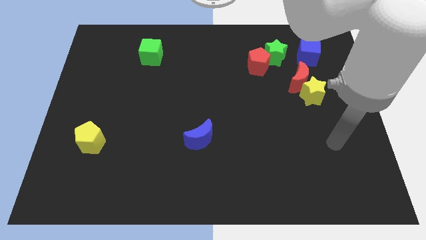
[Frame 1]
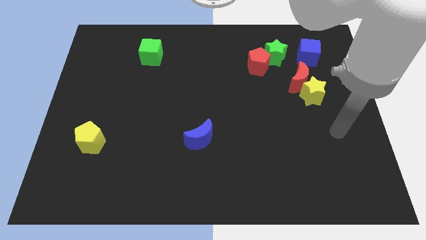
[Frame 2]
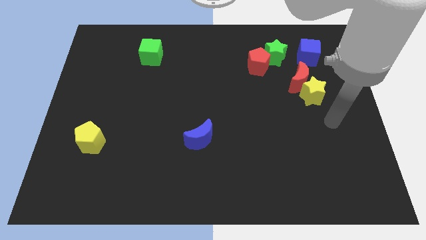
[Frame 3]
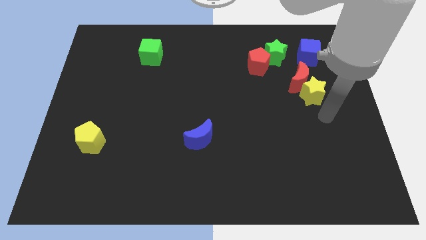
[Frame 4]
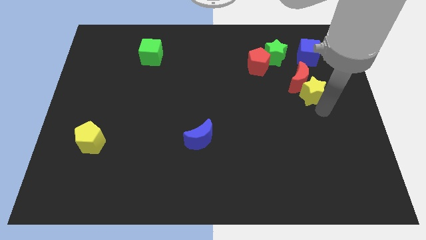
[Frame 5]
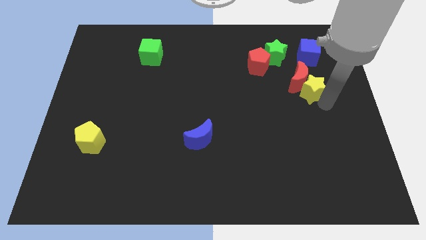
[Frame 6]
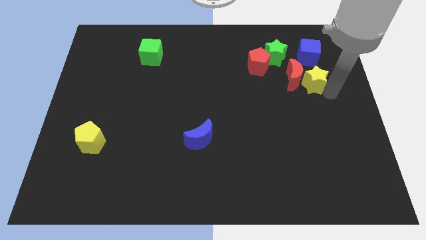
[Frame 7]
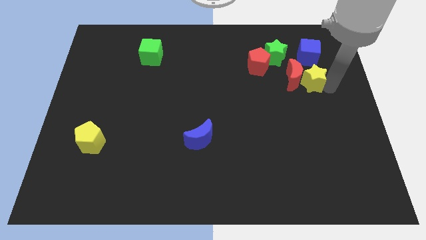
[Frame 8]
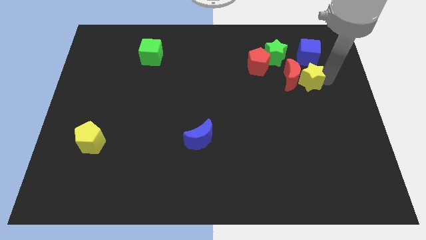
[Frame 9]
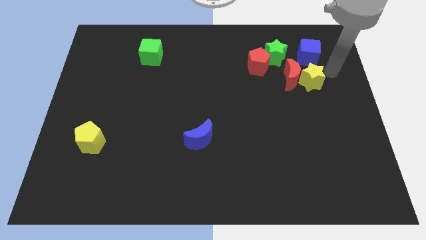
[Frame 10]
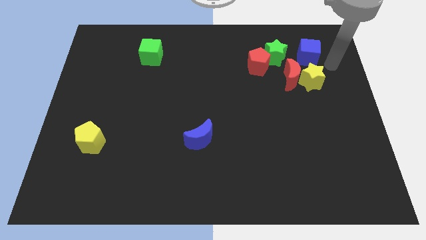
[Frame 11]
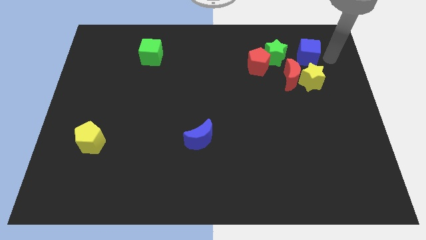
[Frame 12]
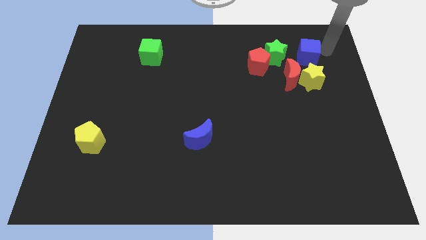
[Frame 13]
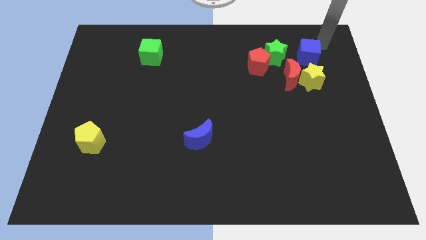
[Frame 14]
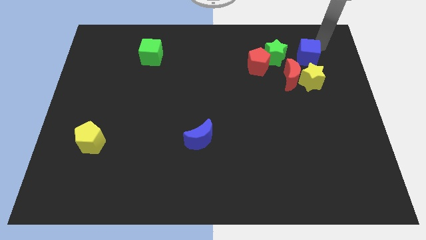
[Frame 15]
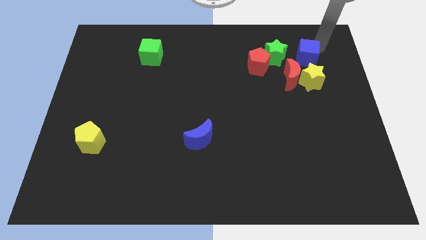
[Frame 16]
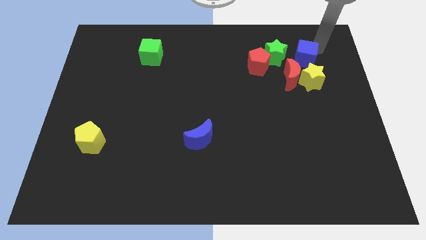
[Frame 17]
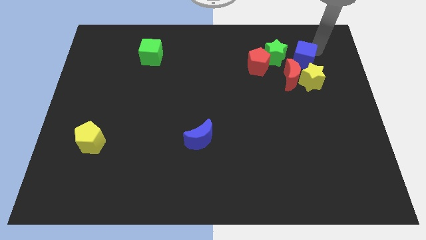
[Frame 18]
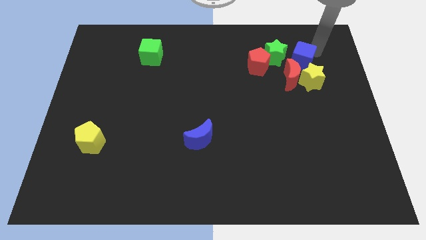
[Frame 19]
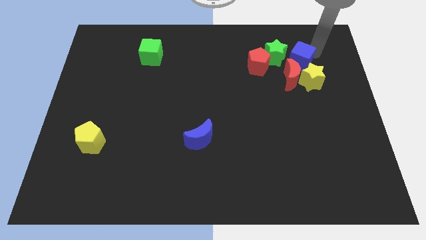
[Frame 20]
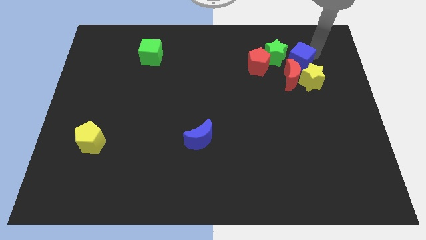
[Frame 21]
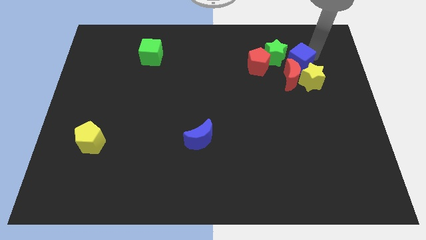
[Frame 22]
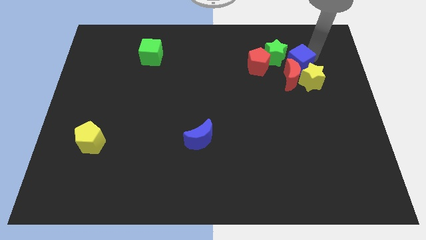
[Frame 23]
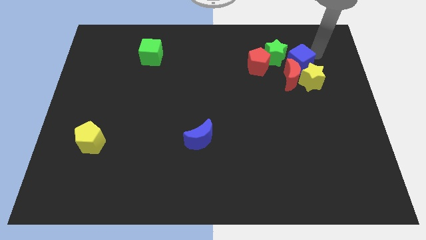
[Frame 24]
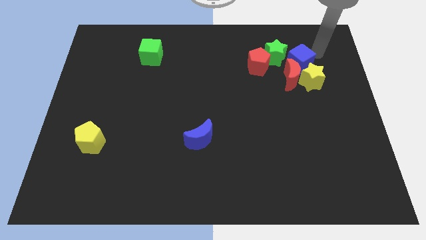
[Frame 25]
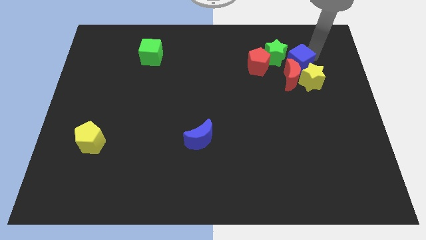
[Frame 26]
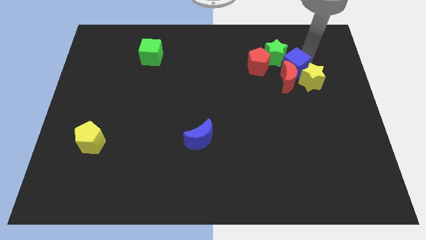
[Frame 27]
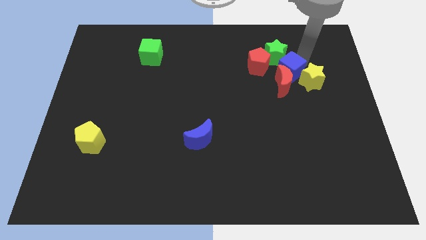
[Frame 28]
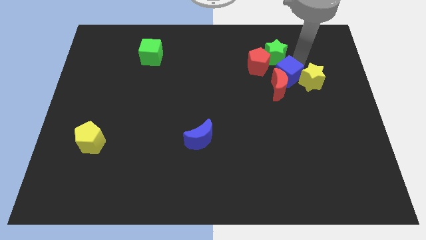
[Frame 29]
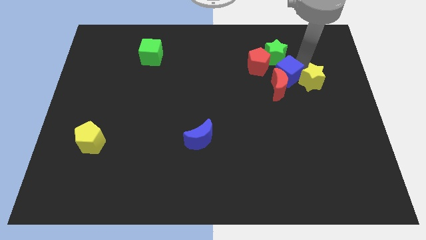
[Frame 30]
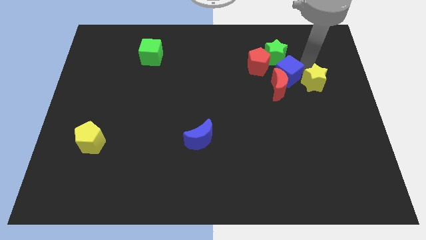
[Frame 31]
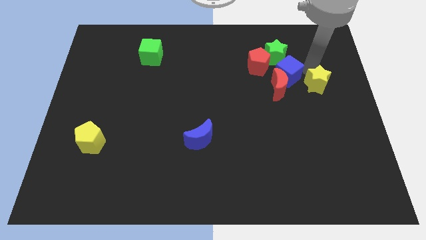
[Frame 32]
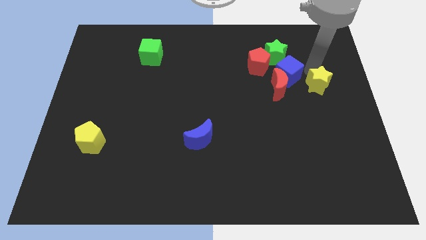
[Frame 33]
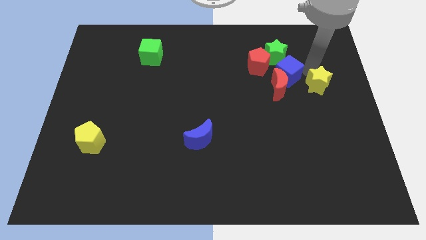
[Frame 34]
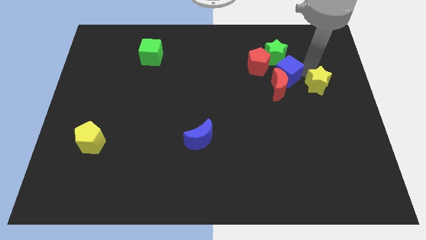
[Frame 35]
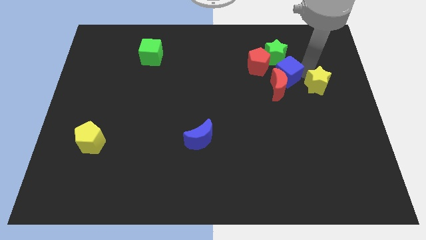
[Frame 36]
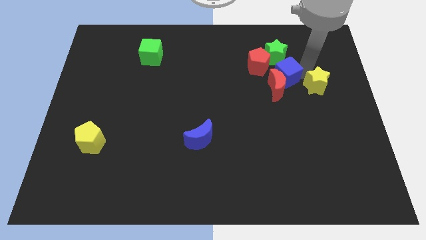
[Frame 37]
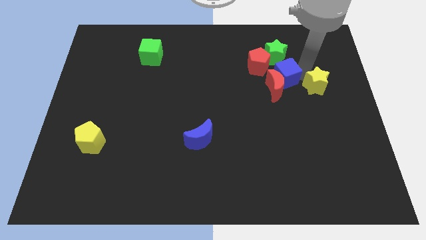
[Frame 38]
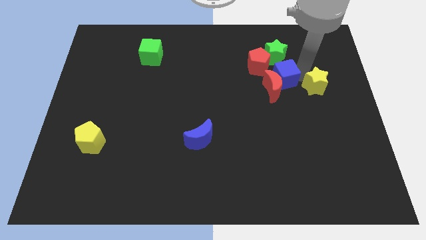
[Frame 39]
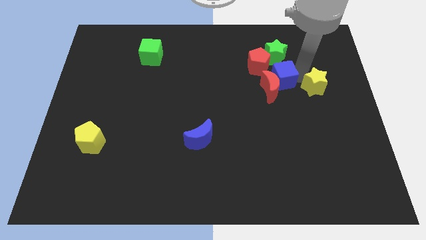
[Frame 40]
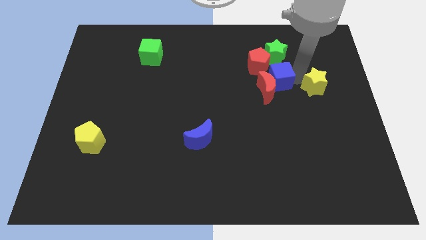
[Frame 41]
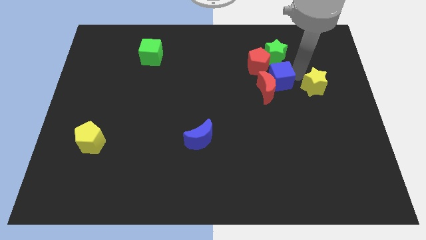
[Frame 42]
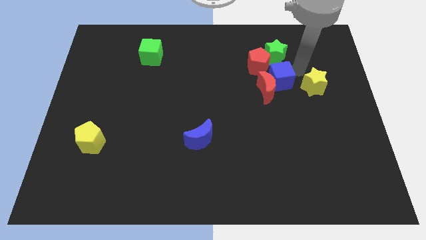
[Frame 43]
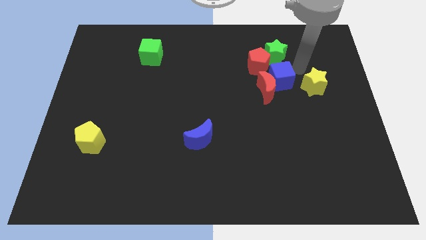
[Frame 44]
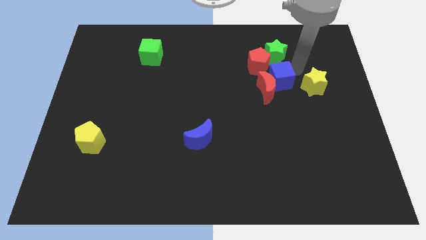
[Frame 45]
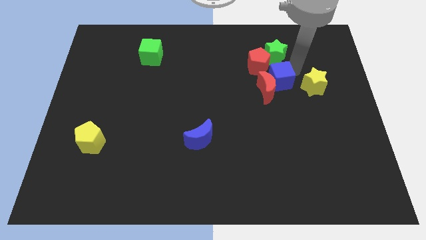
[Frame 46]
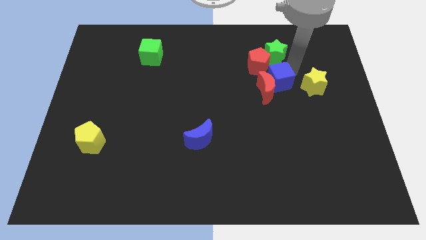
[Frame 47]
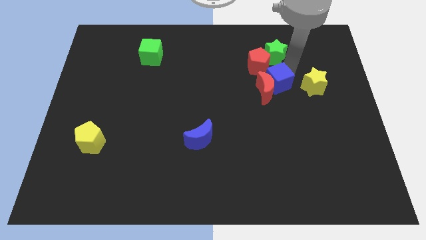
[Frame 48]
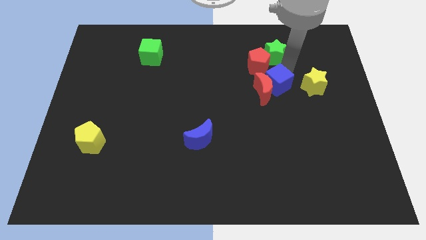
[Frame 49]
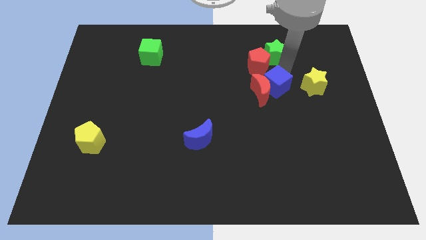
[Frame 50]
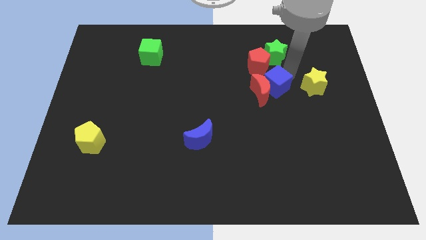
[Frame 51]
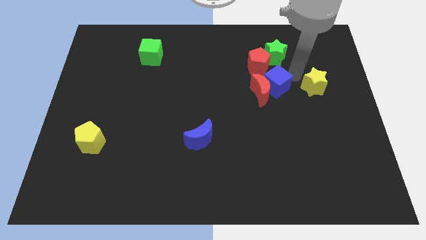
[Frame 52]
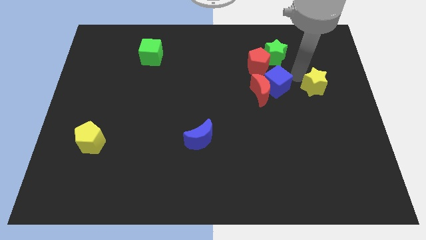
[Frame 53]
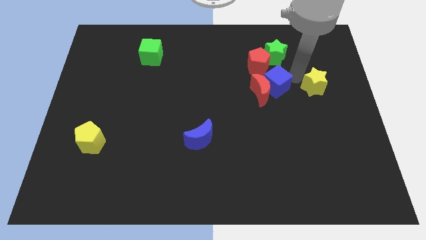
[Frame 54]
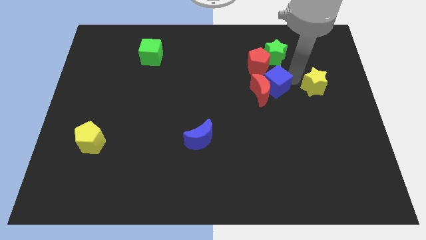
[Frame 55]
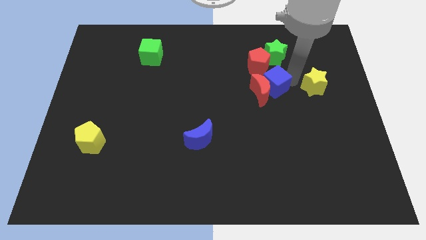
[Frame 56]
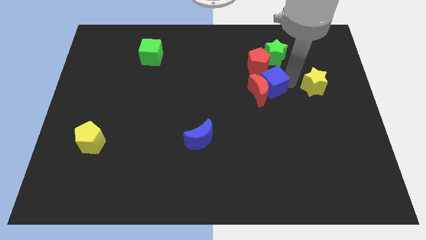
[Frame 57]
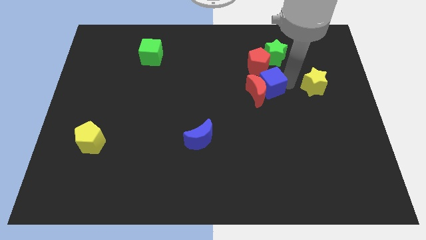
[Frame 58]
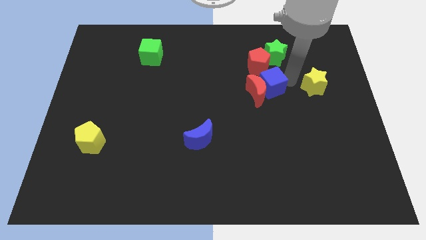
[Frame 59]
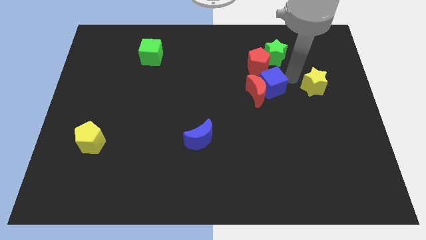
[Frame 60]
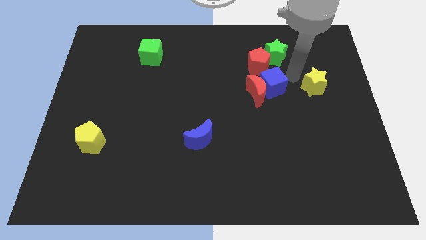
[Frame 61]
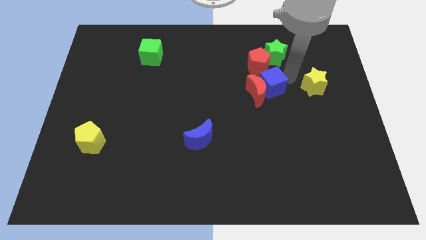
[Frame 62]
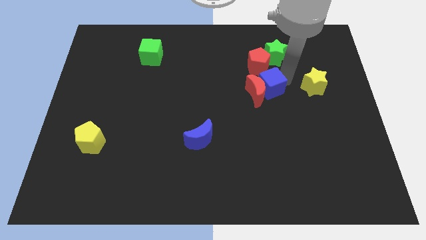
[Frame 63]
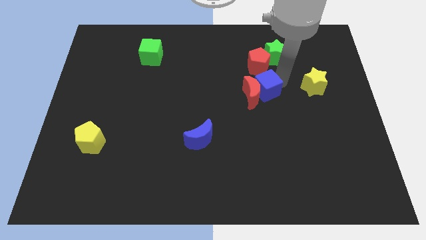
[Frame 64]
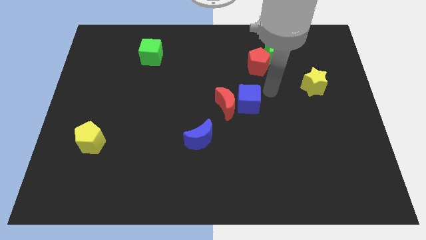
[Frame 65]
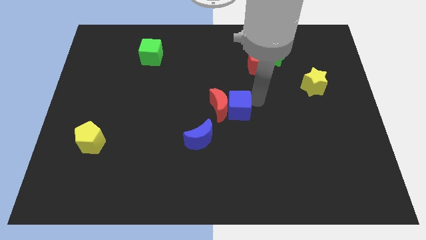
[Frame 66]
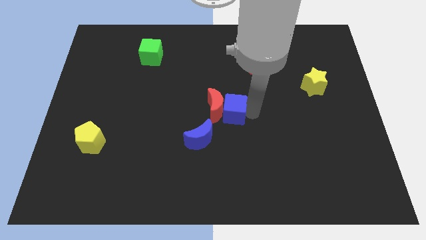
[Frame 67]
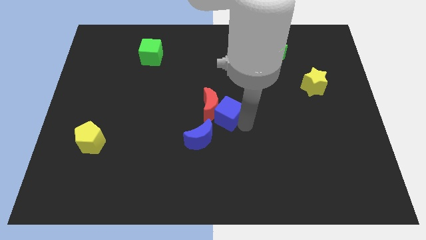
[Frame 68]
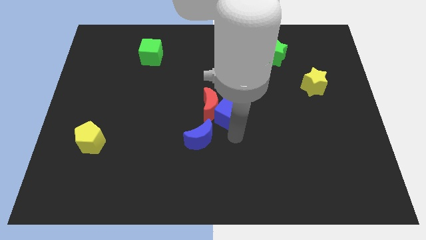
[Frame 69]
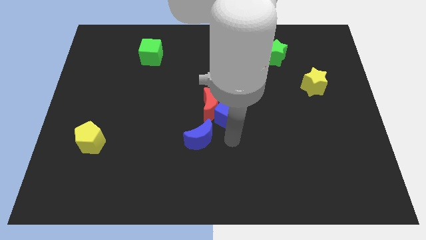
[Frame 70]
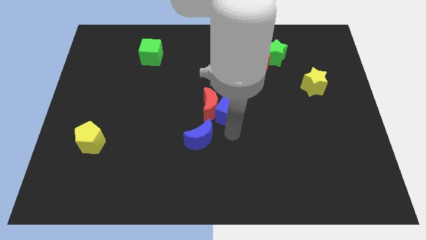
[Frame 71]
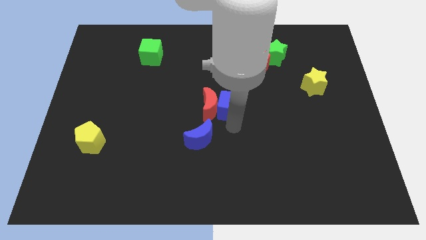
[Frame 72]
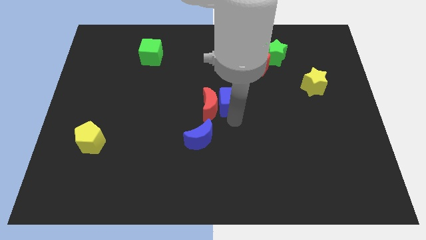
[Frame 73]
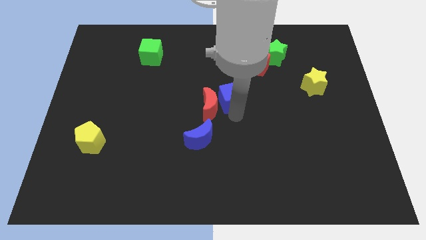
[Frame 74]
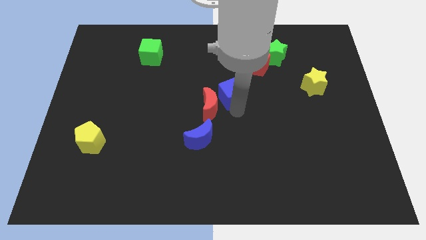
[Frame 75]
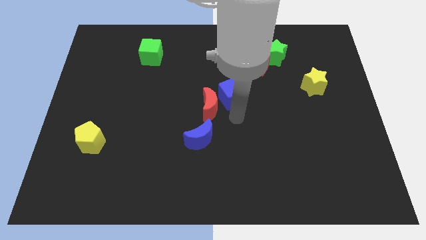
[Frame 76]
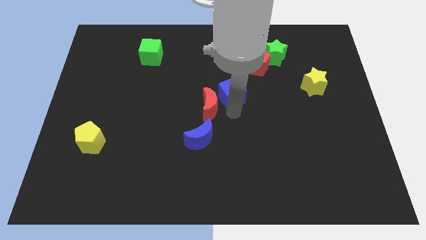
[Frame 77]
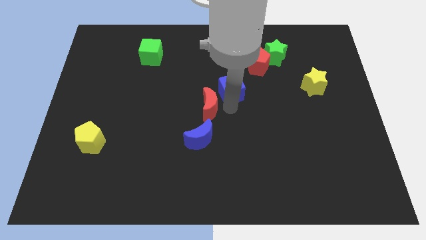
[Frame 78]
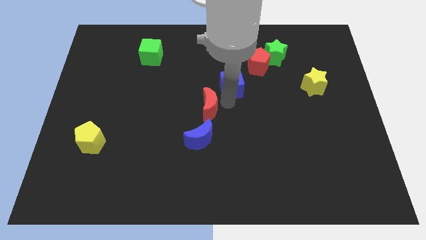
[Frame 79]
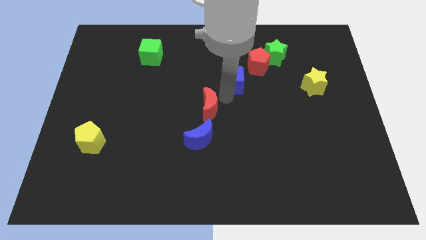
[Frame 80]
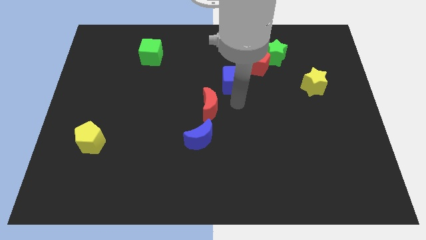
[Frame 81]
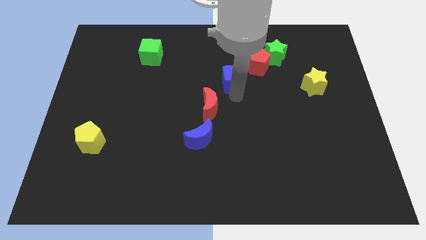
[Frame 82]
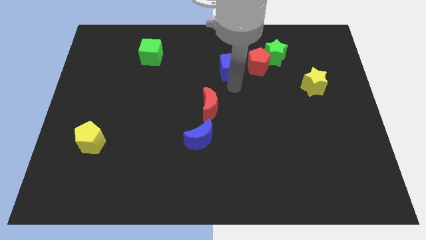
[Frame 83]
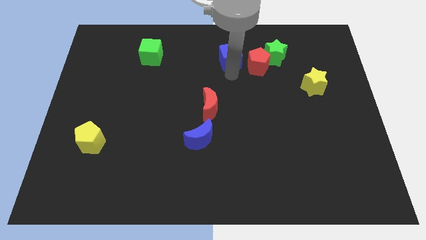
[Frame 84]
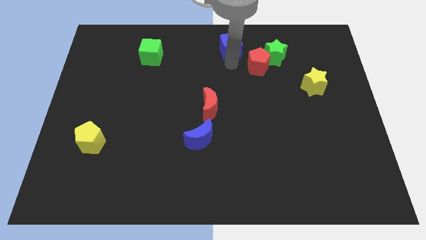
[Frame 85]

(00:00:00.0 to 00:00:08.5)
slide the blue cube to the towards your base
